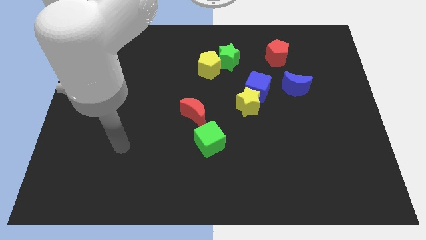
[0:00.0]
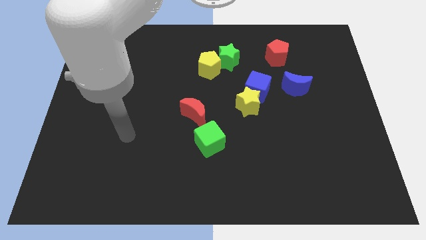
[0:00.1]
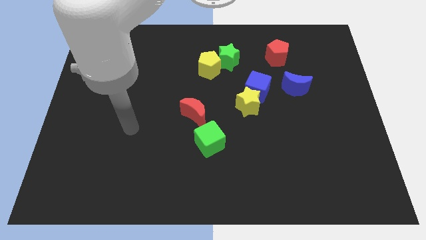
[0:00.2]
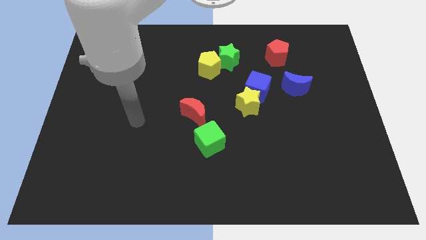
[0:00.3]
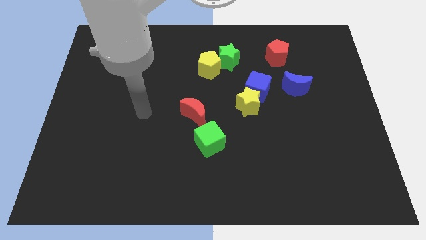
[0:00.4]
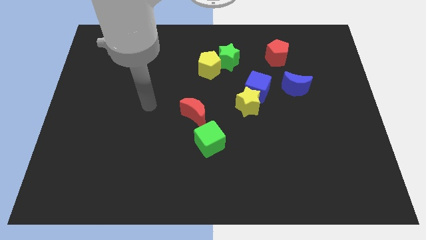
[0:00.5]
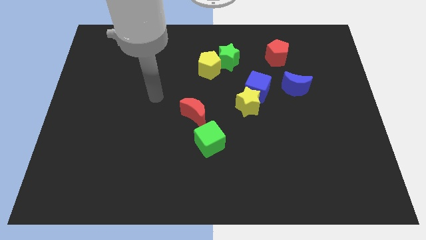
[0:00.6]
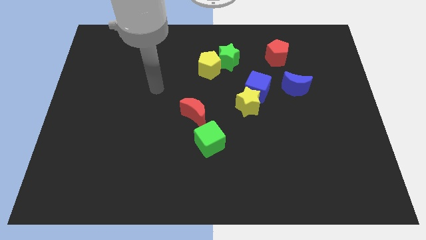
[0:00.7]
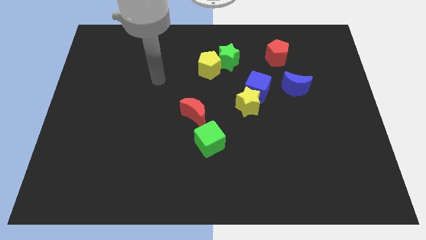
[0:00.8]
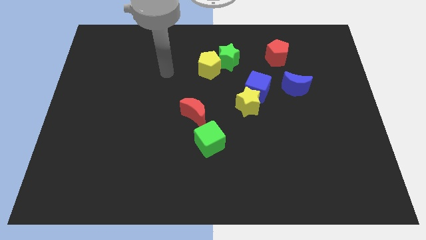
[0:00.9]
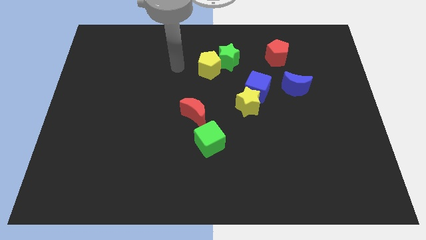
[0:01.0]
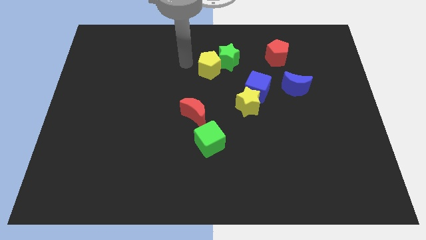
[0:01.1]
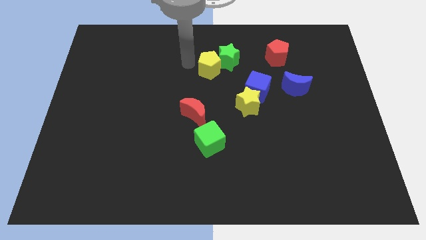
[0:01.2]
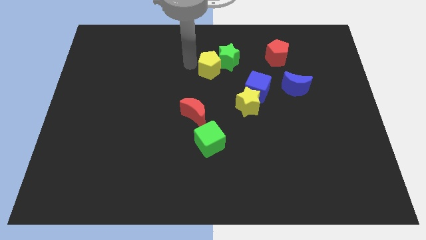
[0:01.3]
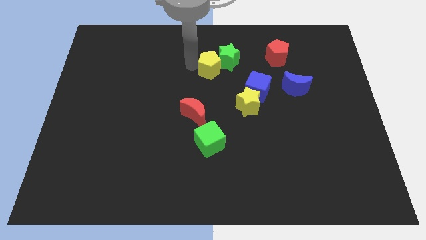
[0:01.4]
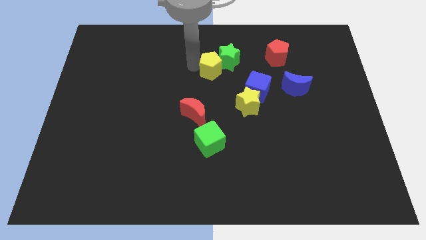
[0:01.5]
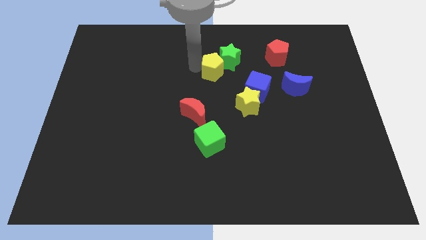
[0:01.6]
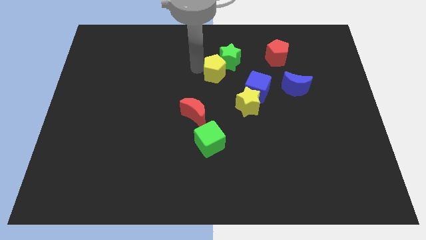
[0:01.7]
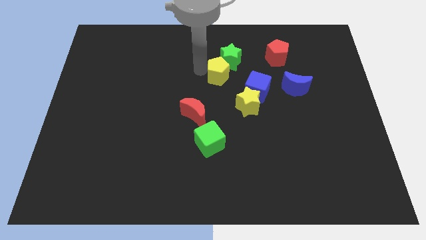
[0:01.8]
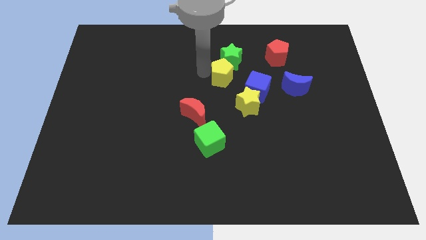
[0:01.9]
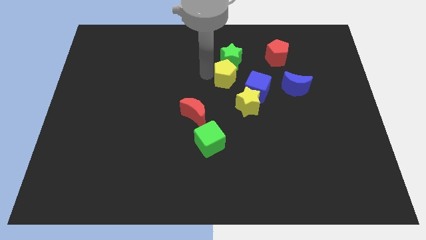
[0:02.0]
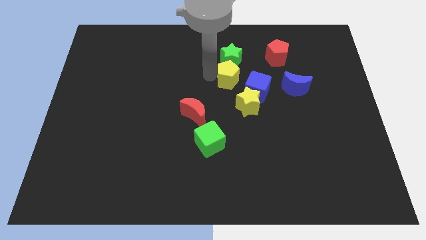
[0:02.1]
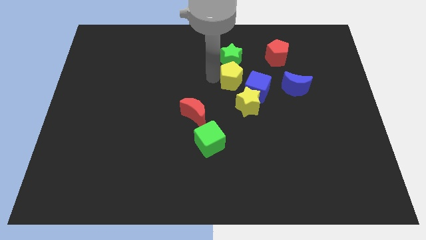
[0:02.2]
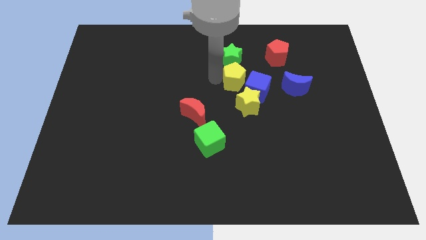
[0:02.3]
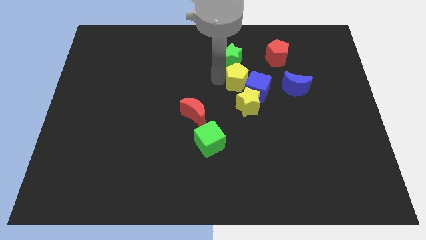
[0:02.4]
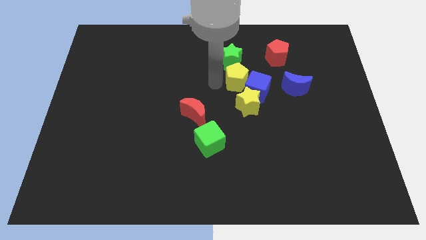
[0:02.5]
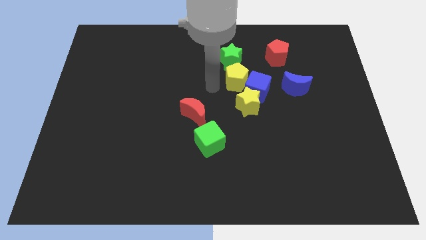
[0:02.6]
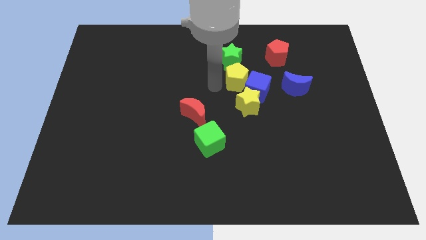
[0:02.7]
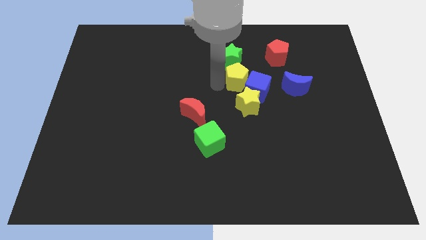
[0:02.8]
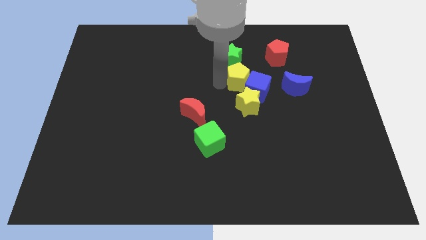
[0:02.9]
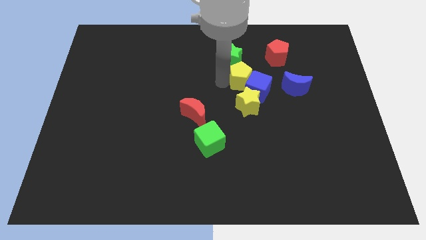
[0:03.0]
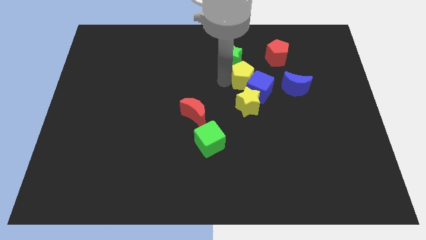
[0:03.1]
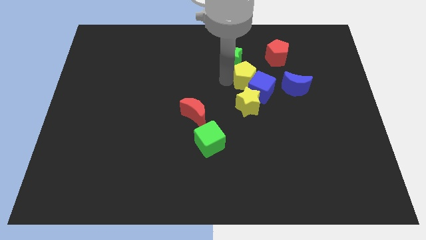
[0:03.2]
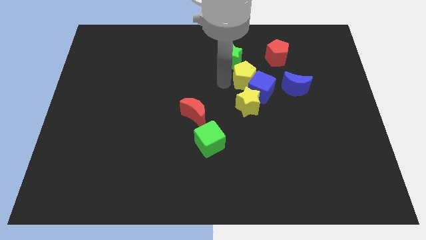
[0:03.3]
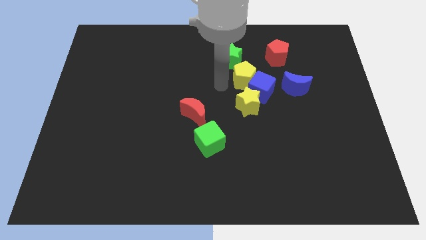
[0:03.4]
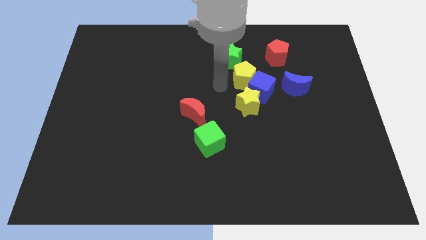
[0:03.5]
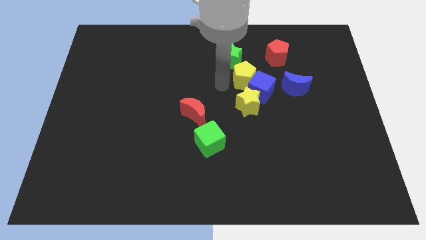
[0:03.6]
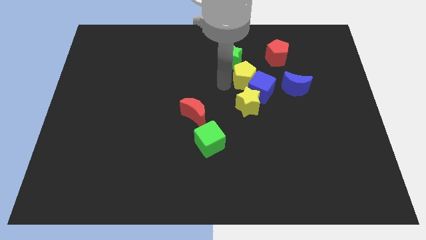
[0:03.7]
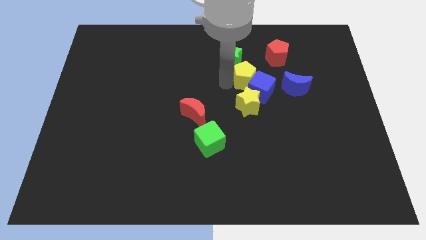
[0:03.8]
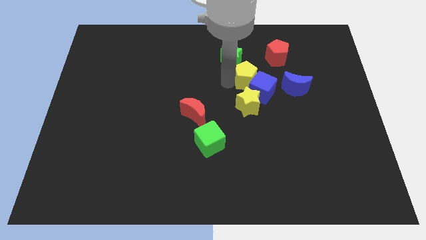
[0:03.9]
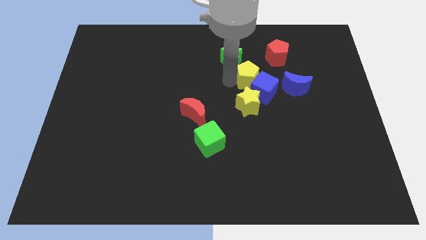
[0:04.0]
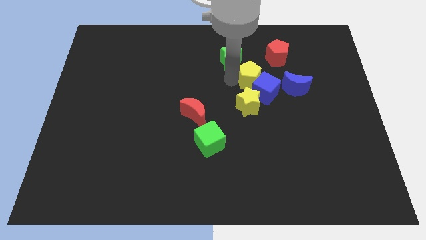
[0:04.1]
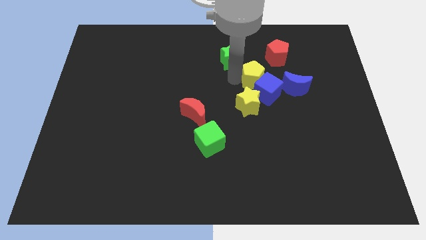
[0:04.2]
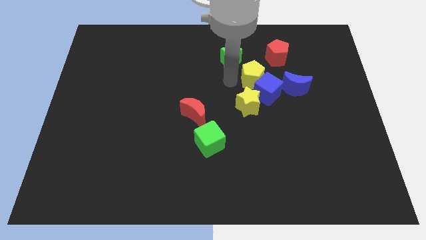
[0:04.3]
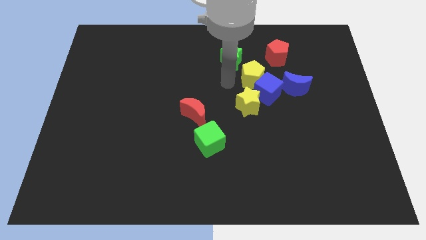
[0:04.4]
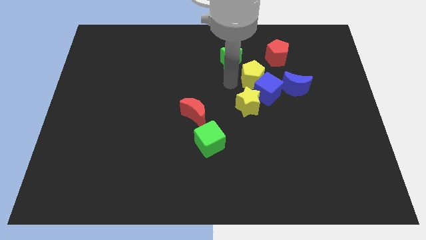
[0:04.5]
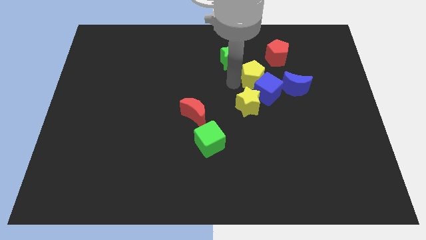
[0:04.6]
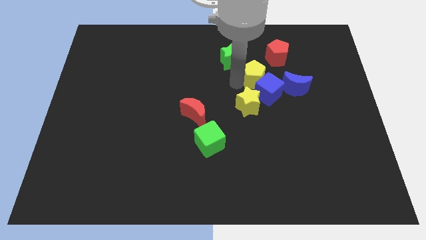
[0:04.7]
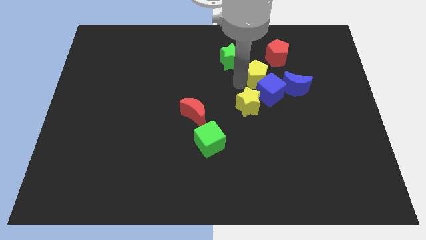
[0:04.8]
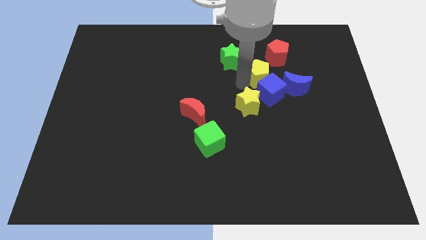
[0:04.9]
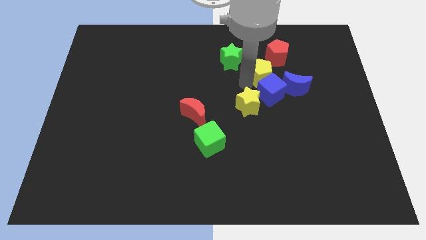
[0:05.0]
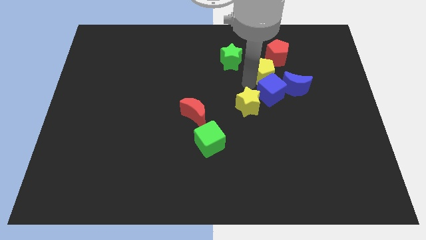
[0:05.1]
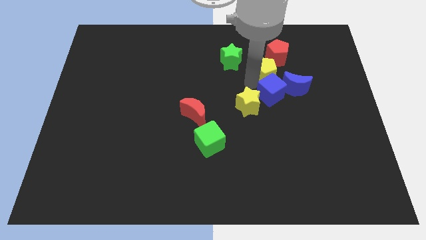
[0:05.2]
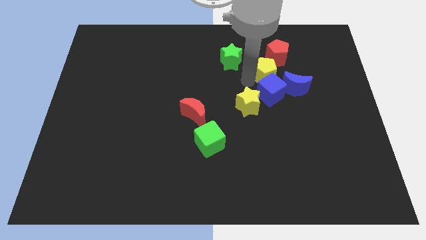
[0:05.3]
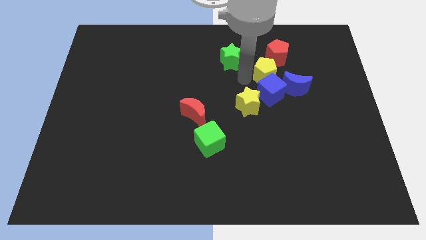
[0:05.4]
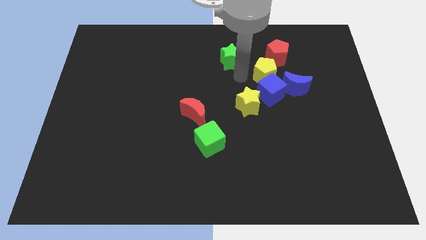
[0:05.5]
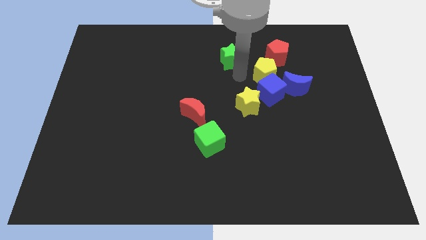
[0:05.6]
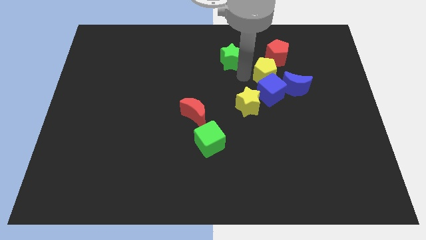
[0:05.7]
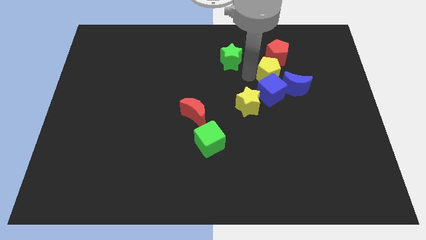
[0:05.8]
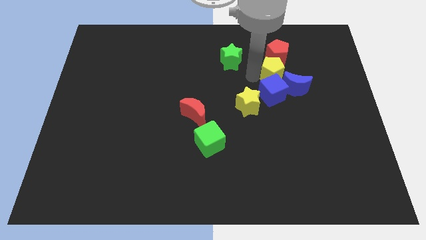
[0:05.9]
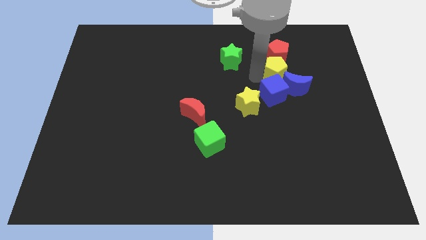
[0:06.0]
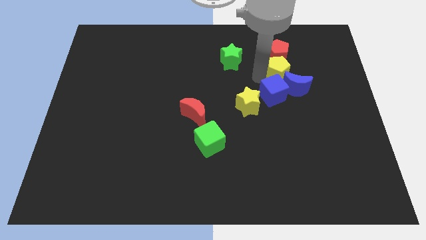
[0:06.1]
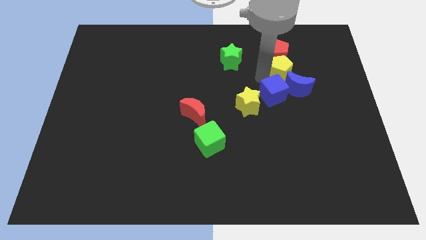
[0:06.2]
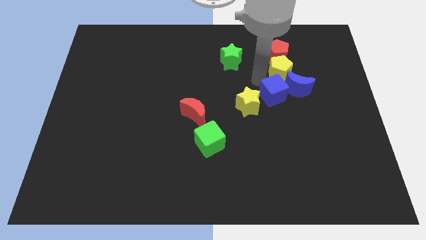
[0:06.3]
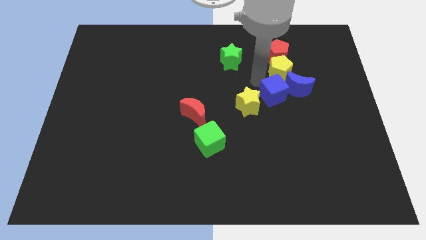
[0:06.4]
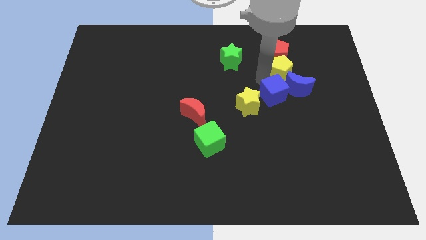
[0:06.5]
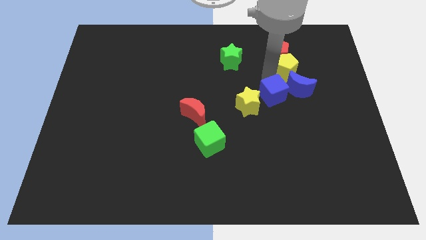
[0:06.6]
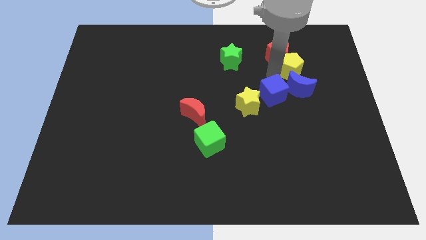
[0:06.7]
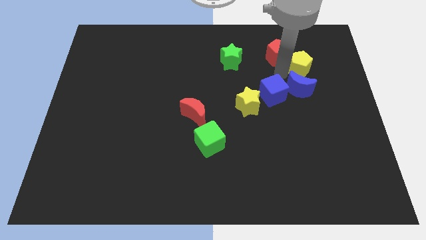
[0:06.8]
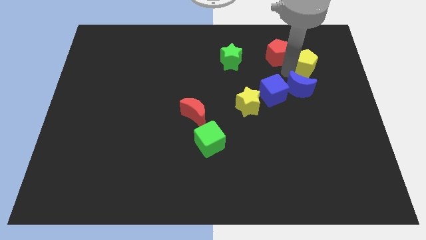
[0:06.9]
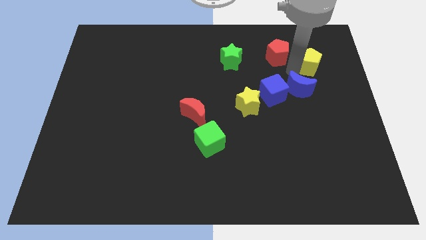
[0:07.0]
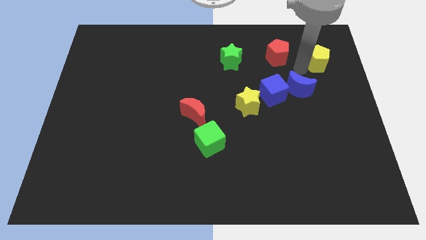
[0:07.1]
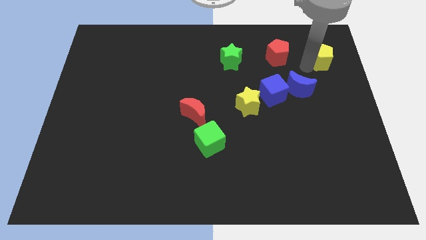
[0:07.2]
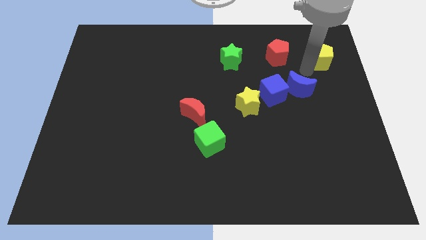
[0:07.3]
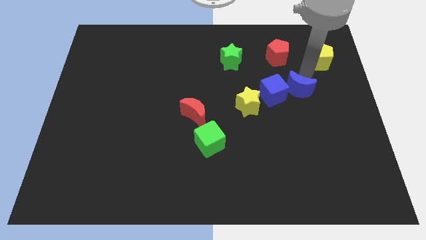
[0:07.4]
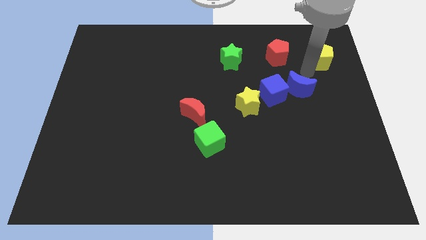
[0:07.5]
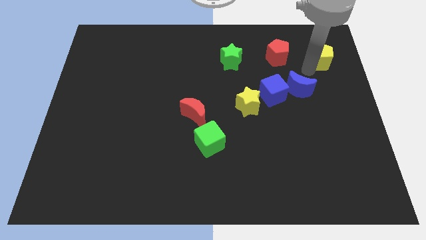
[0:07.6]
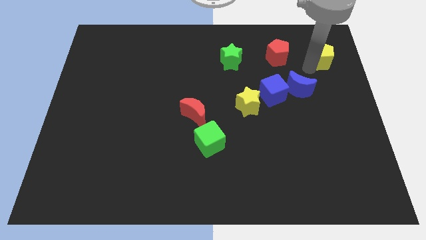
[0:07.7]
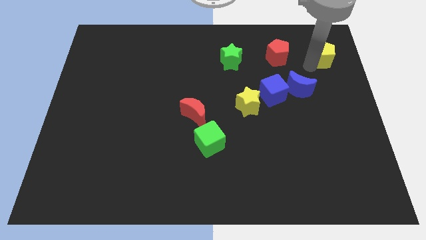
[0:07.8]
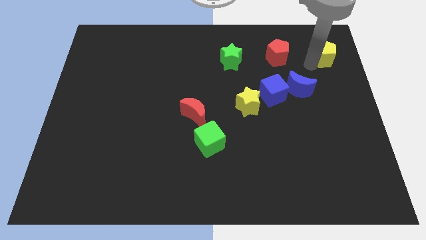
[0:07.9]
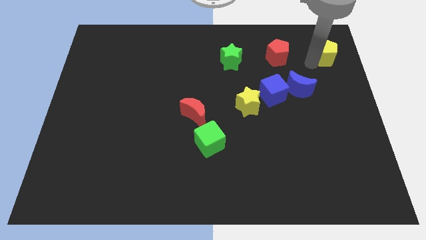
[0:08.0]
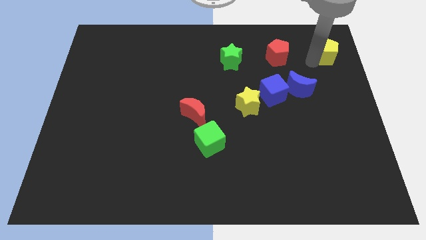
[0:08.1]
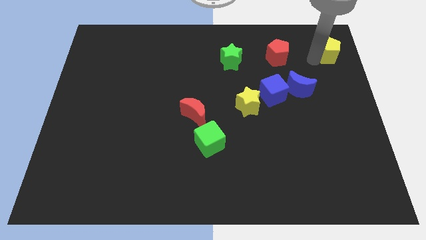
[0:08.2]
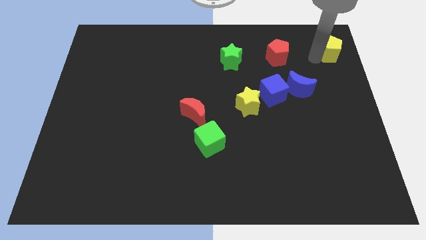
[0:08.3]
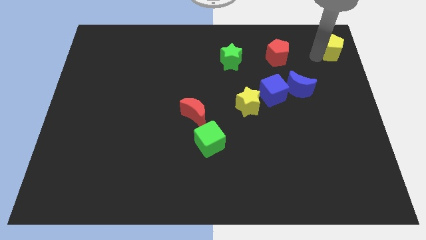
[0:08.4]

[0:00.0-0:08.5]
move the yellow pentagon to the top right
